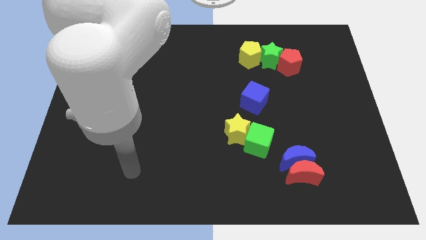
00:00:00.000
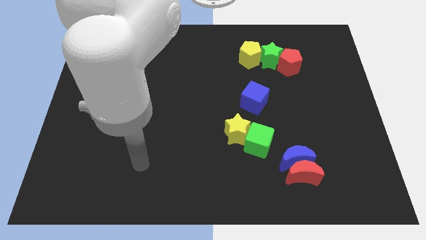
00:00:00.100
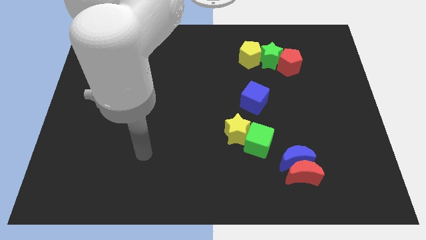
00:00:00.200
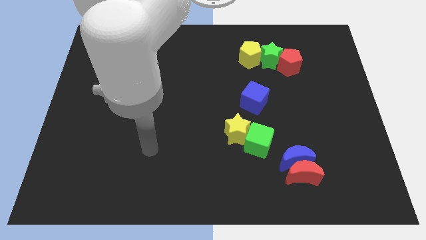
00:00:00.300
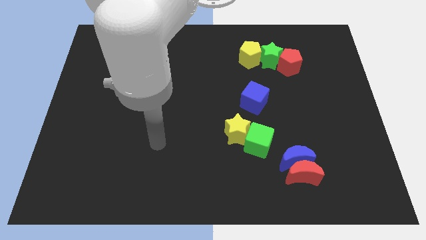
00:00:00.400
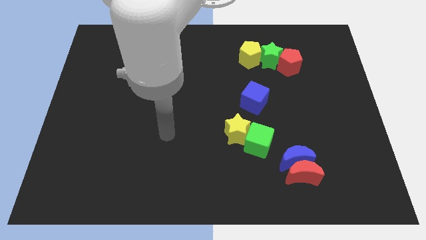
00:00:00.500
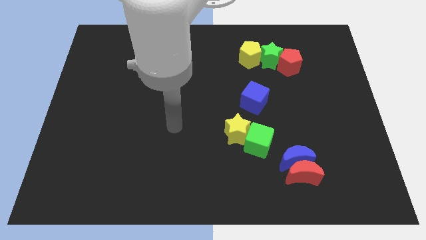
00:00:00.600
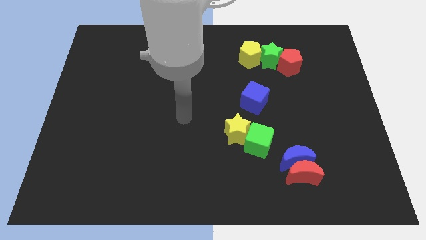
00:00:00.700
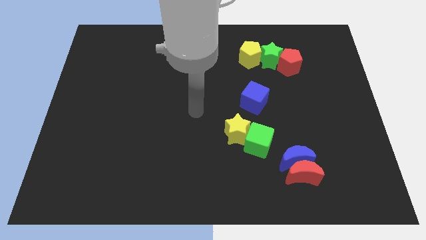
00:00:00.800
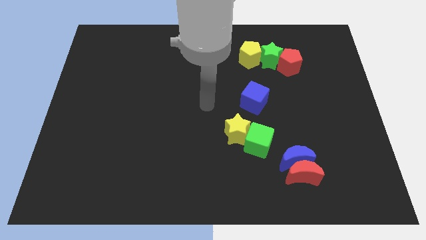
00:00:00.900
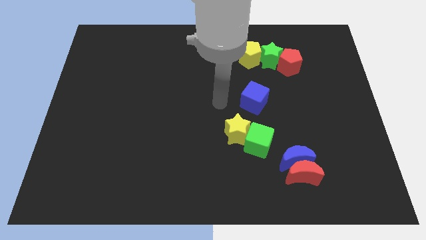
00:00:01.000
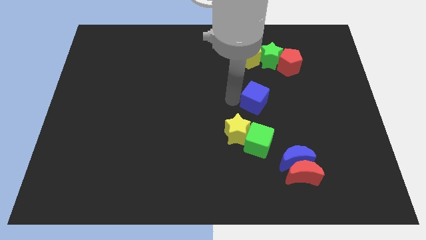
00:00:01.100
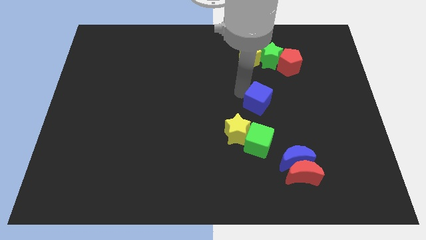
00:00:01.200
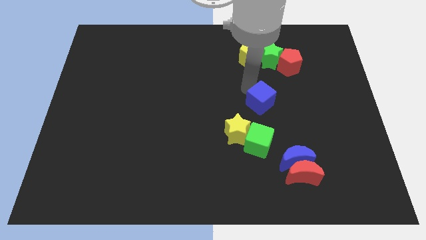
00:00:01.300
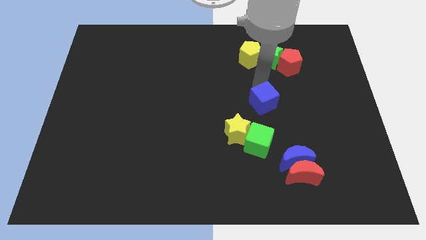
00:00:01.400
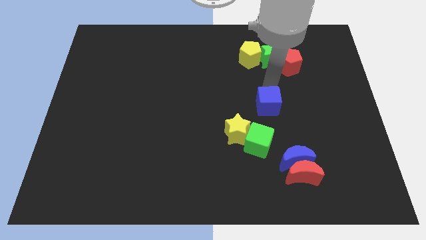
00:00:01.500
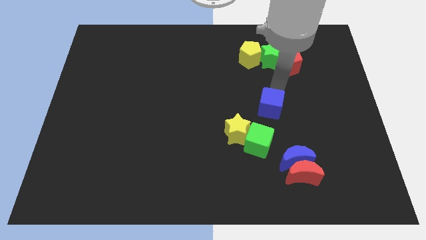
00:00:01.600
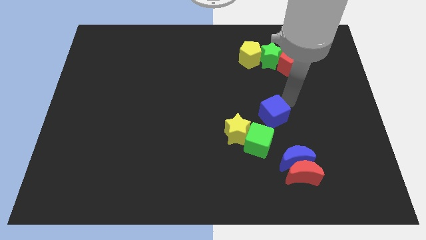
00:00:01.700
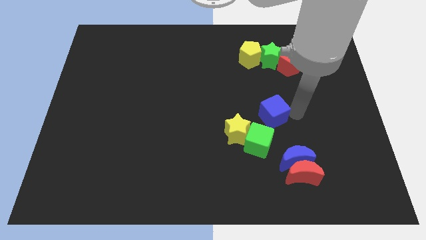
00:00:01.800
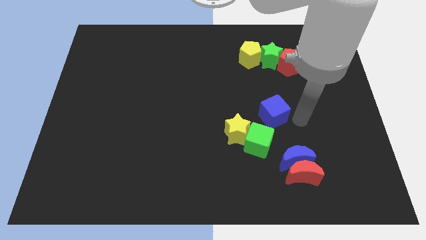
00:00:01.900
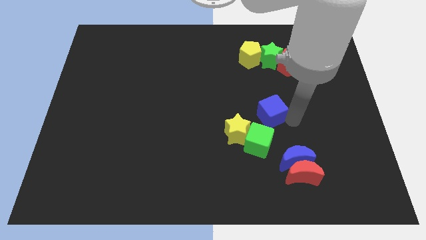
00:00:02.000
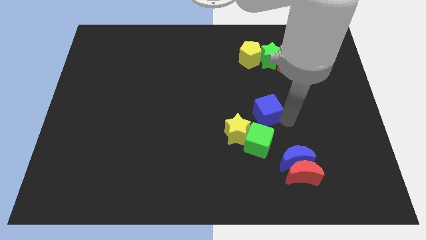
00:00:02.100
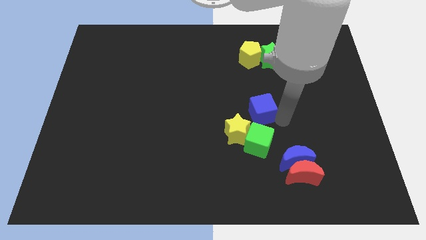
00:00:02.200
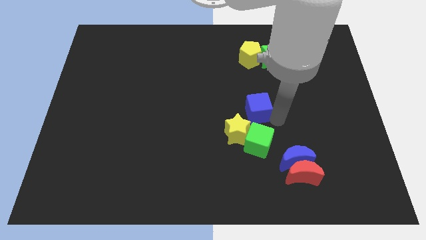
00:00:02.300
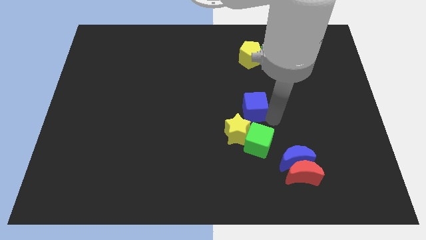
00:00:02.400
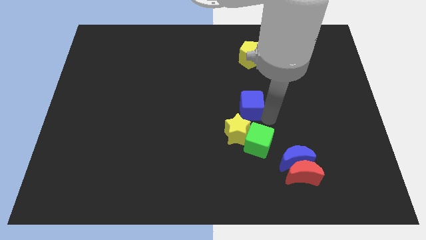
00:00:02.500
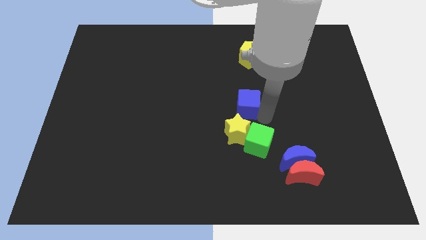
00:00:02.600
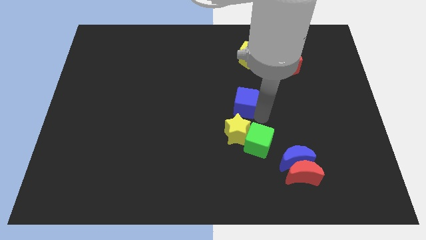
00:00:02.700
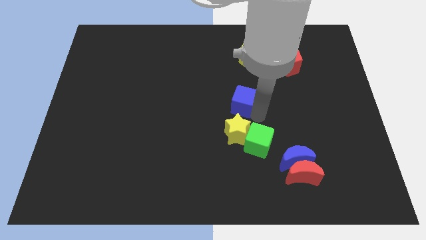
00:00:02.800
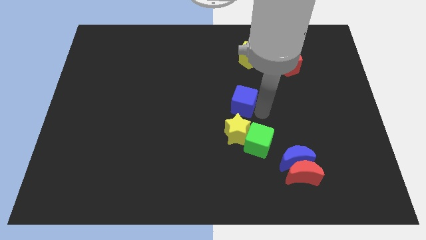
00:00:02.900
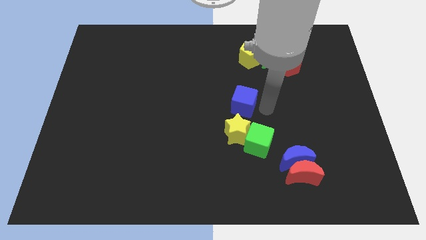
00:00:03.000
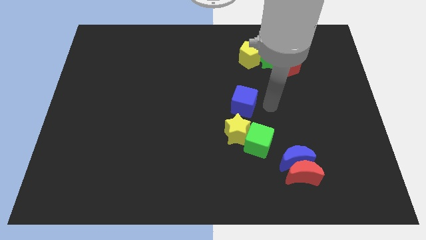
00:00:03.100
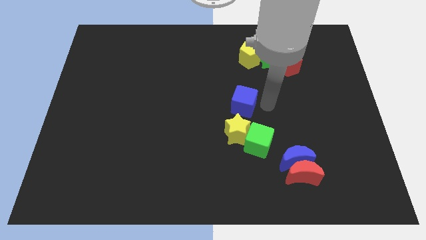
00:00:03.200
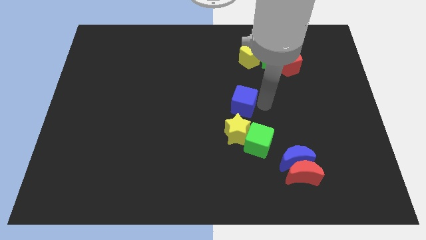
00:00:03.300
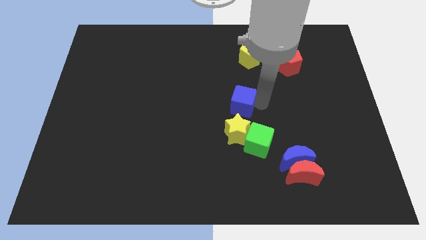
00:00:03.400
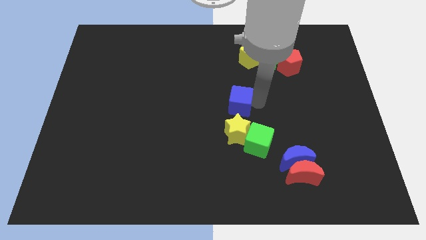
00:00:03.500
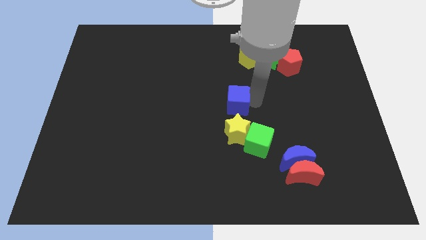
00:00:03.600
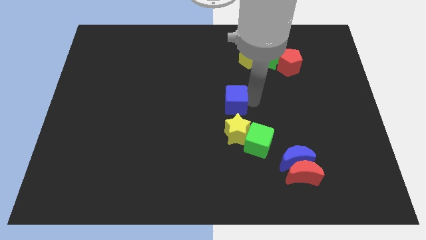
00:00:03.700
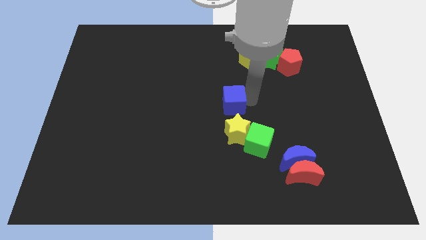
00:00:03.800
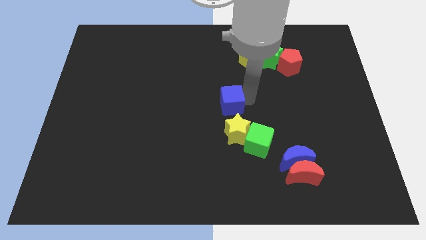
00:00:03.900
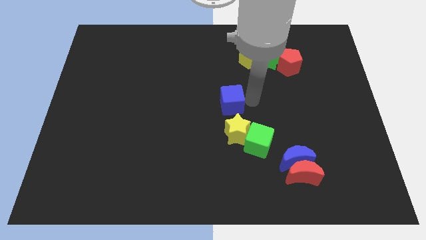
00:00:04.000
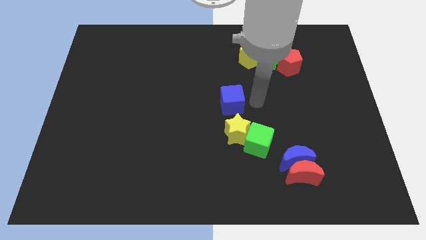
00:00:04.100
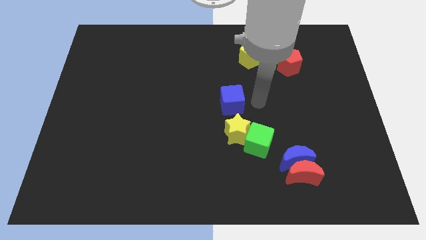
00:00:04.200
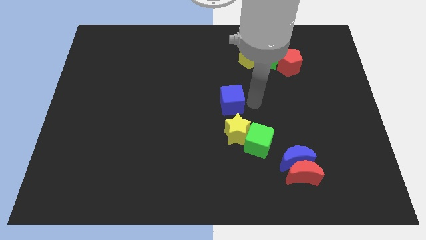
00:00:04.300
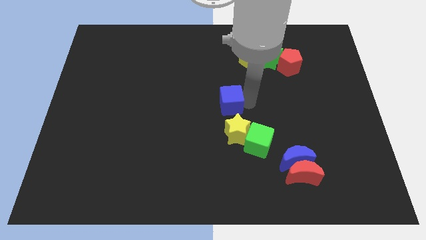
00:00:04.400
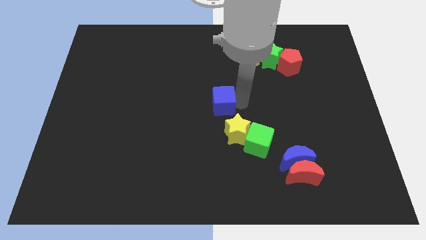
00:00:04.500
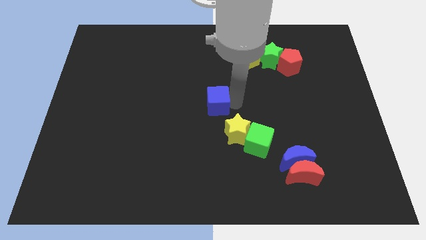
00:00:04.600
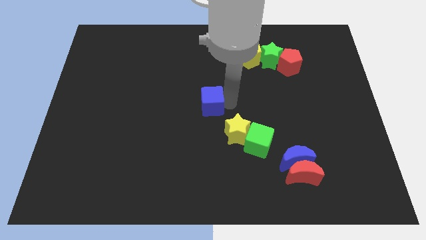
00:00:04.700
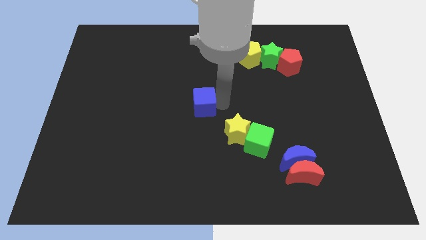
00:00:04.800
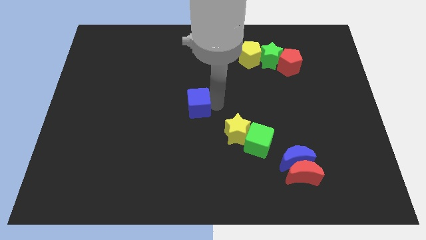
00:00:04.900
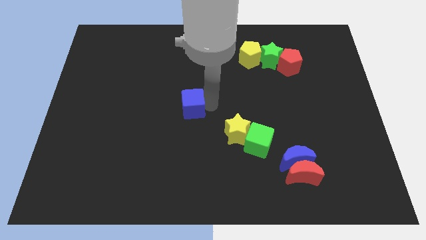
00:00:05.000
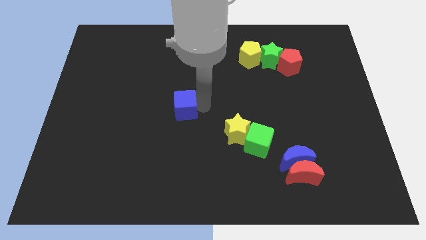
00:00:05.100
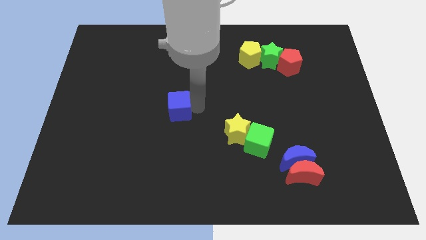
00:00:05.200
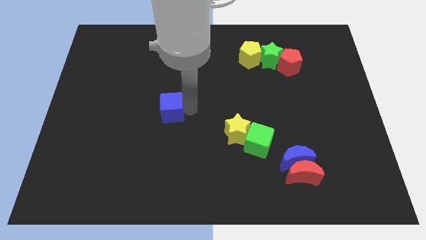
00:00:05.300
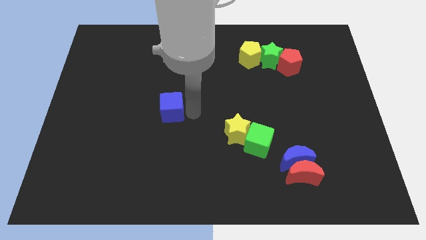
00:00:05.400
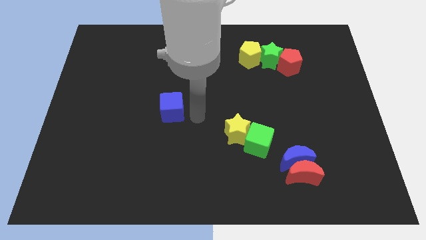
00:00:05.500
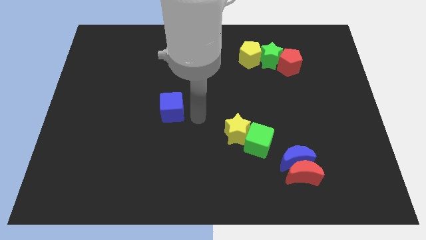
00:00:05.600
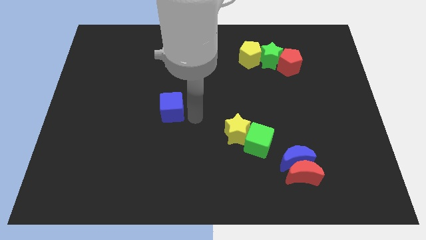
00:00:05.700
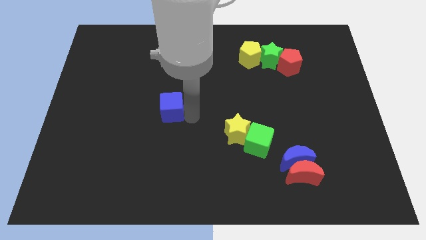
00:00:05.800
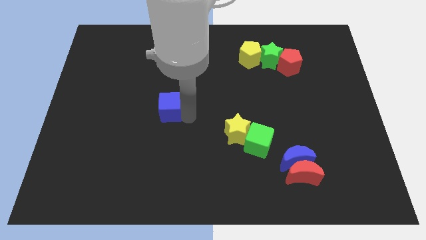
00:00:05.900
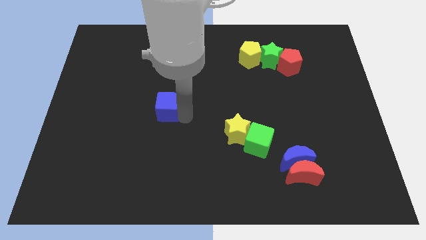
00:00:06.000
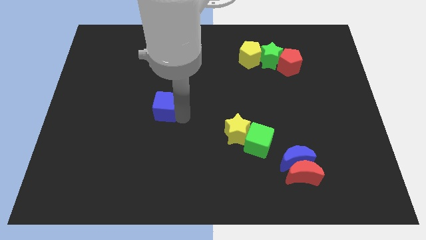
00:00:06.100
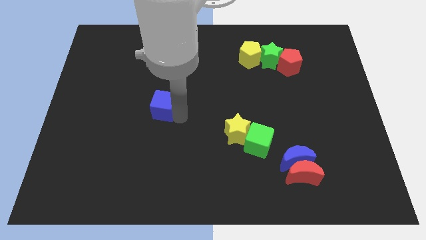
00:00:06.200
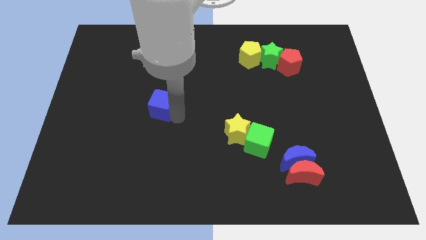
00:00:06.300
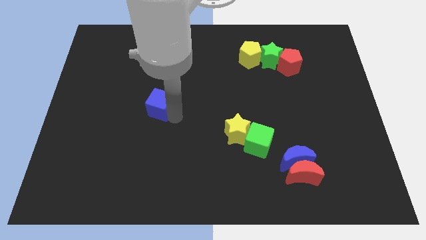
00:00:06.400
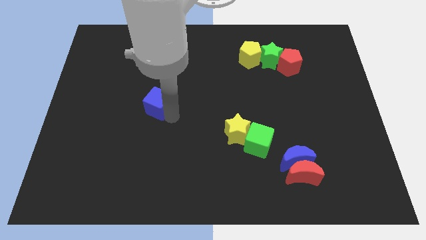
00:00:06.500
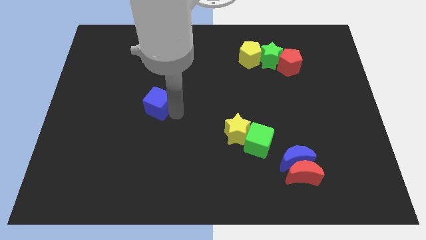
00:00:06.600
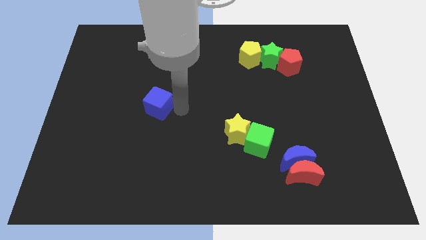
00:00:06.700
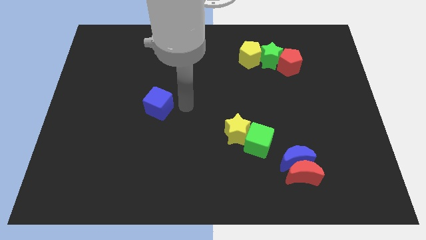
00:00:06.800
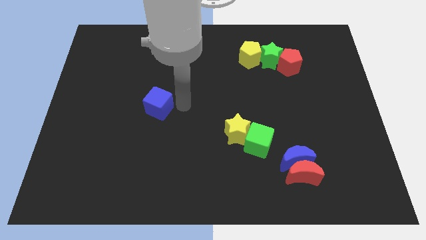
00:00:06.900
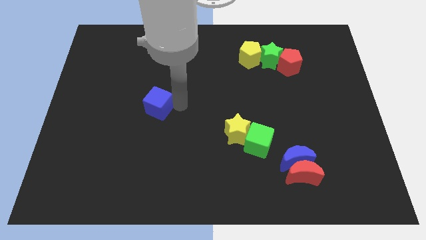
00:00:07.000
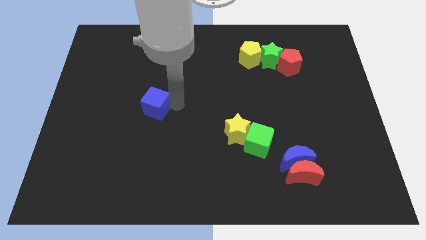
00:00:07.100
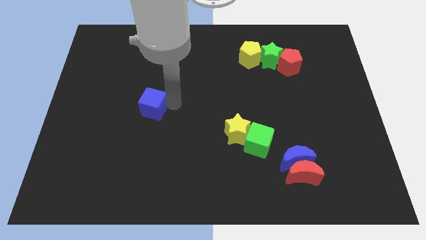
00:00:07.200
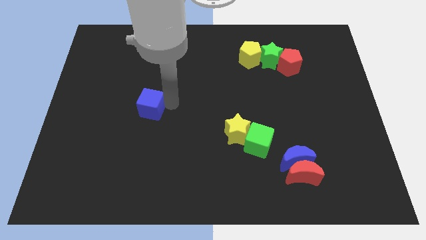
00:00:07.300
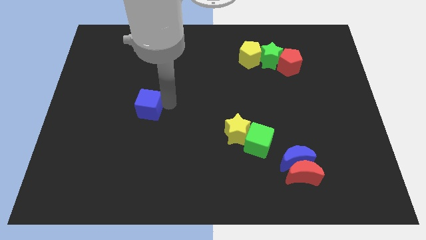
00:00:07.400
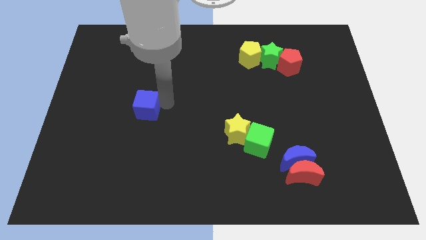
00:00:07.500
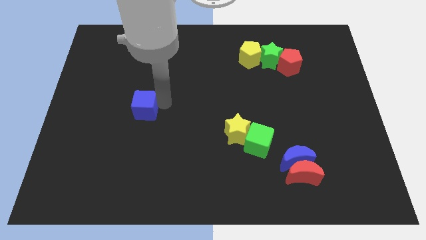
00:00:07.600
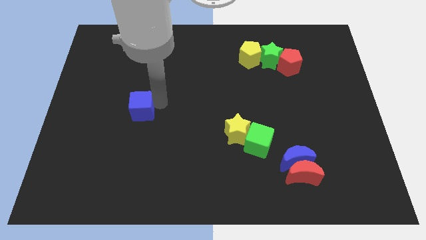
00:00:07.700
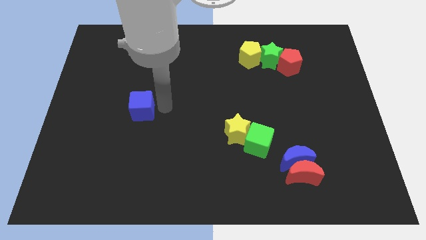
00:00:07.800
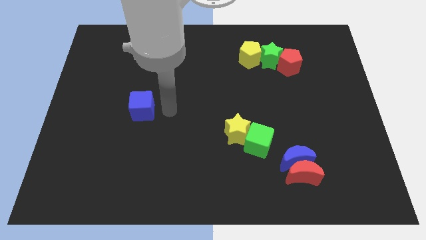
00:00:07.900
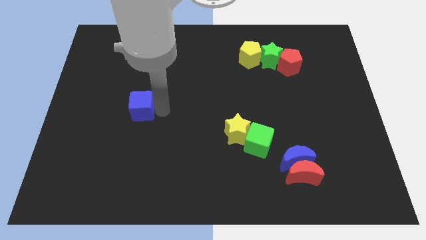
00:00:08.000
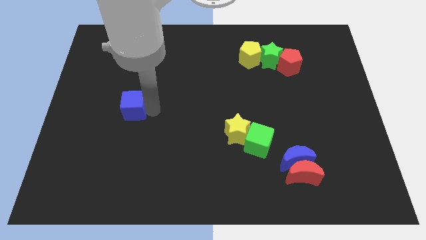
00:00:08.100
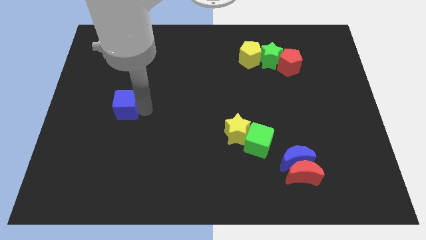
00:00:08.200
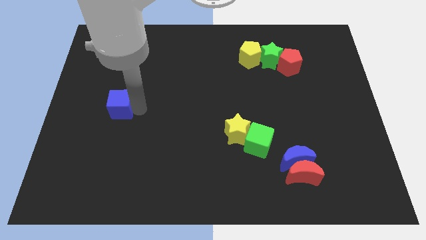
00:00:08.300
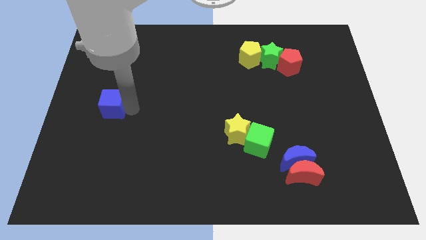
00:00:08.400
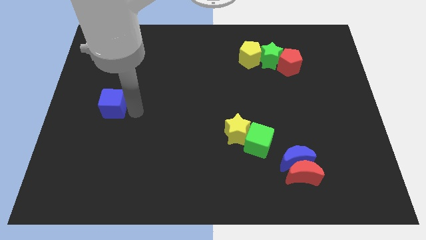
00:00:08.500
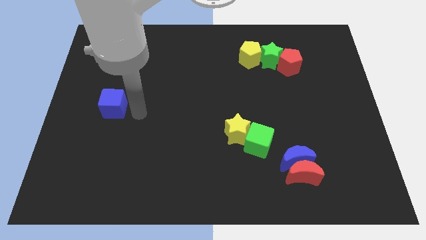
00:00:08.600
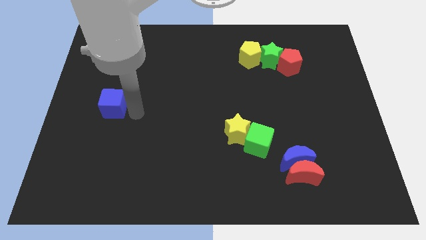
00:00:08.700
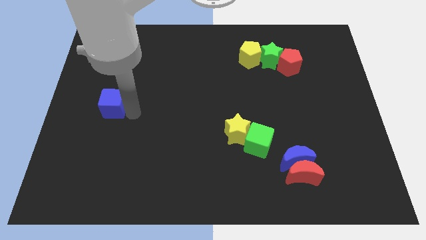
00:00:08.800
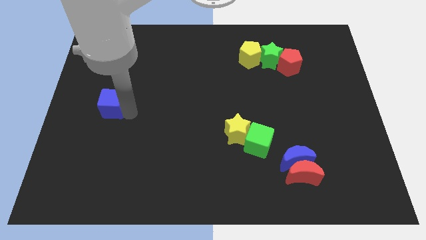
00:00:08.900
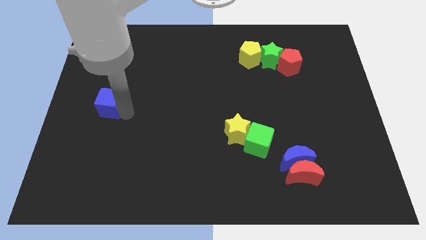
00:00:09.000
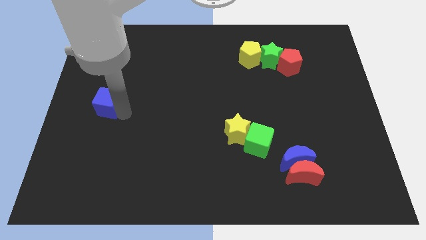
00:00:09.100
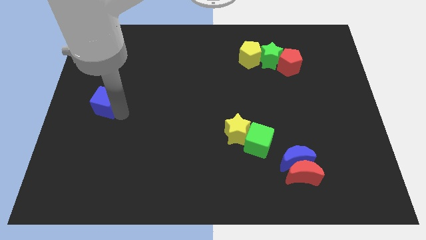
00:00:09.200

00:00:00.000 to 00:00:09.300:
put the blue cube to the left side
